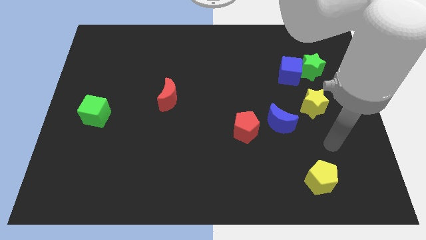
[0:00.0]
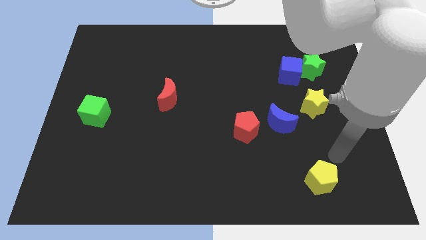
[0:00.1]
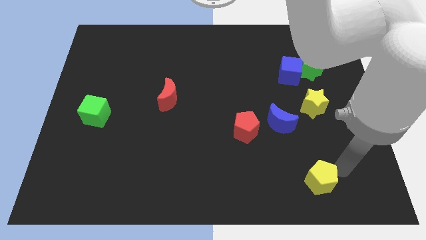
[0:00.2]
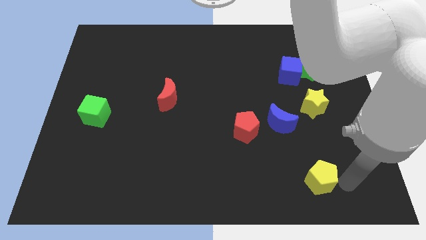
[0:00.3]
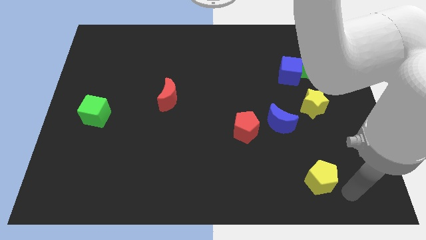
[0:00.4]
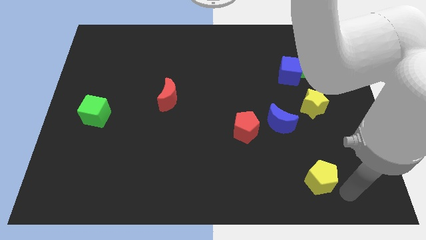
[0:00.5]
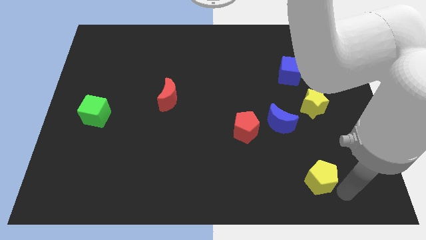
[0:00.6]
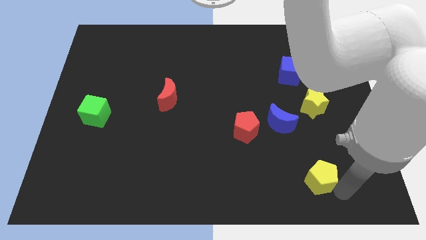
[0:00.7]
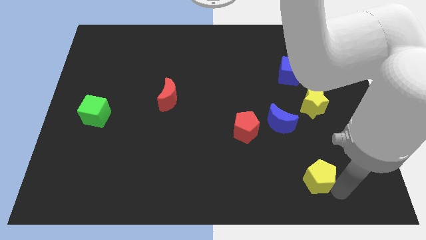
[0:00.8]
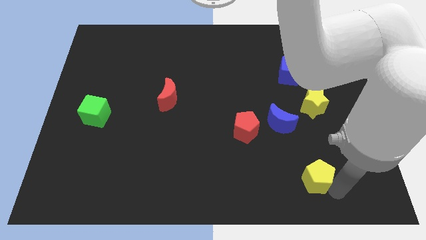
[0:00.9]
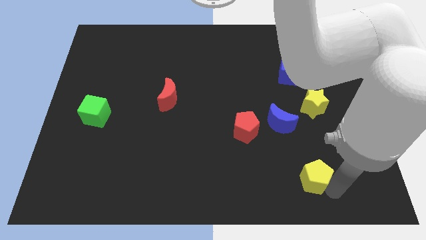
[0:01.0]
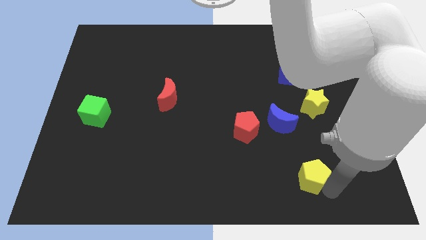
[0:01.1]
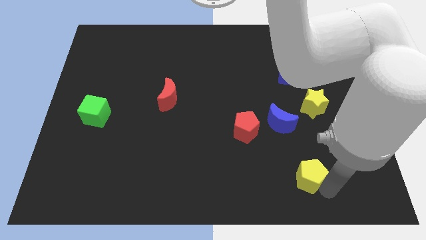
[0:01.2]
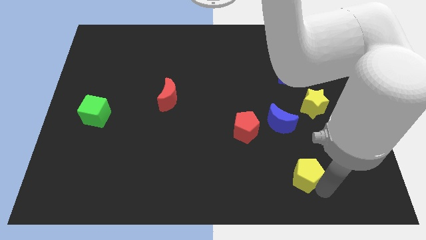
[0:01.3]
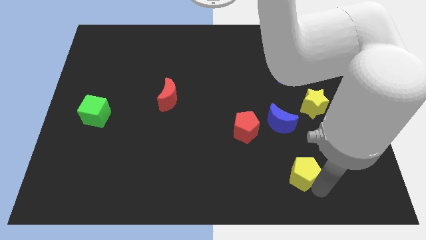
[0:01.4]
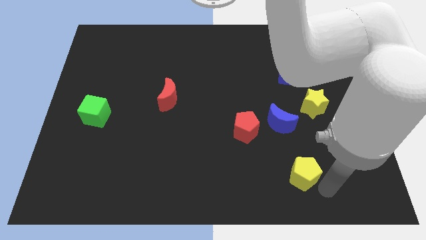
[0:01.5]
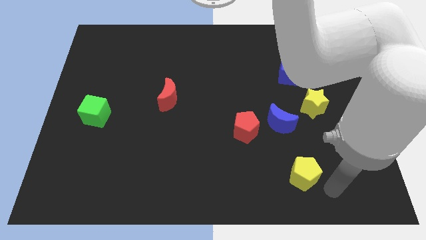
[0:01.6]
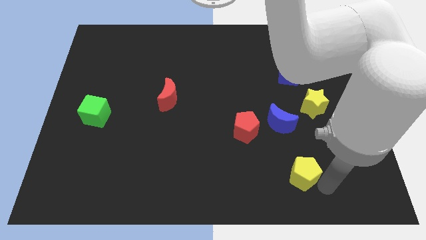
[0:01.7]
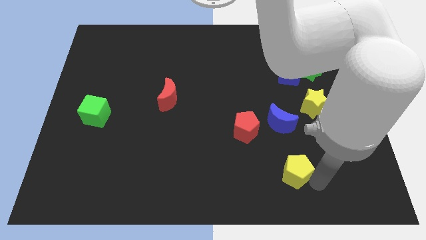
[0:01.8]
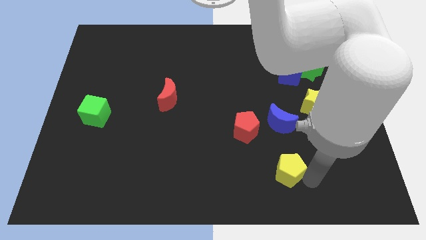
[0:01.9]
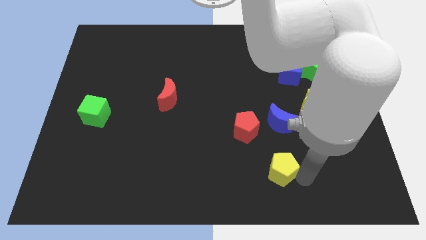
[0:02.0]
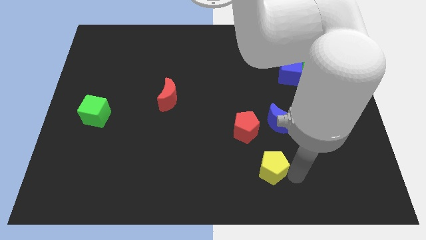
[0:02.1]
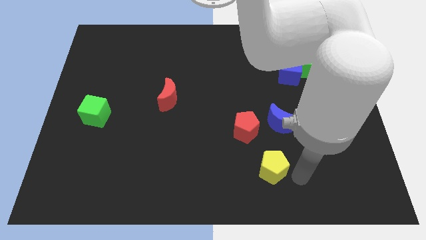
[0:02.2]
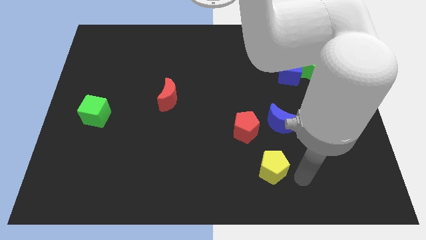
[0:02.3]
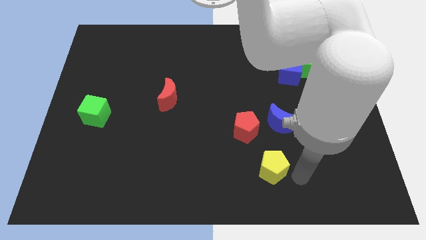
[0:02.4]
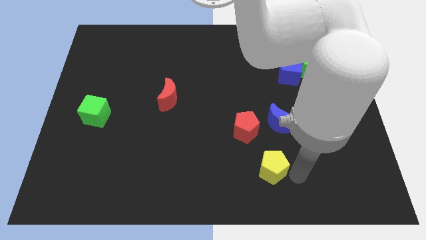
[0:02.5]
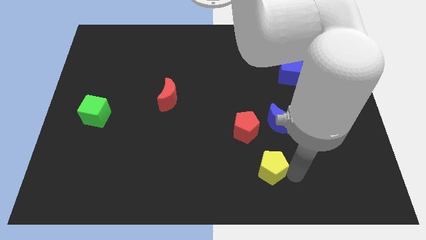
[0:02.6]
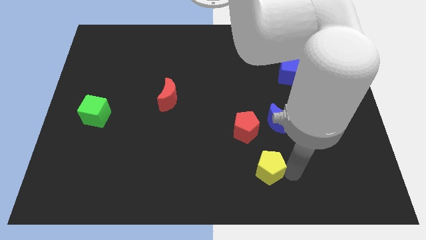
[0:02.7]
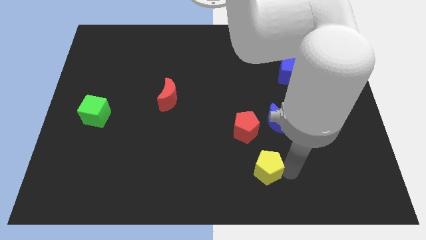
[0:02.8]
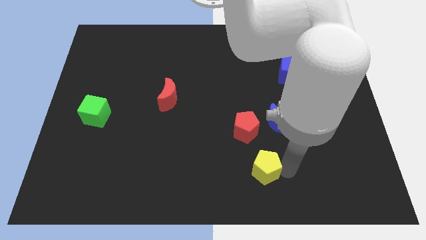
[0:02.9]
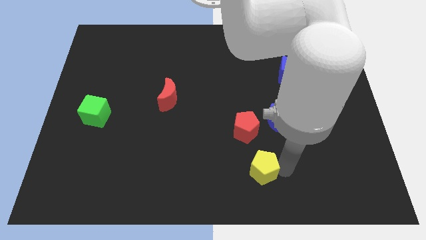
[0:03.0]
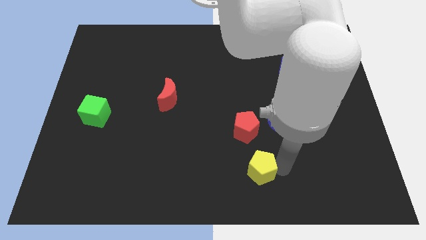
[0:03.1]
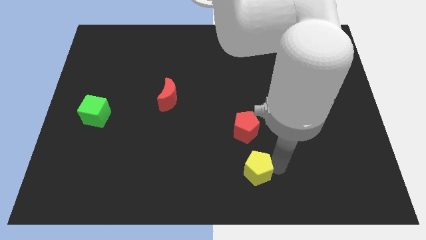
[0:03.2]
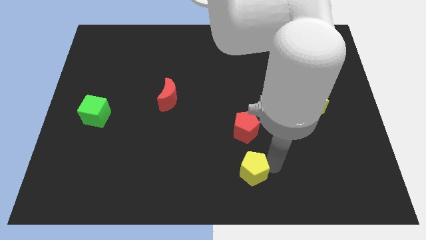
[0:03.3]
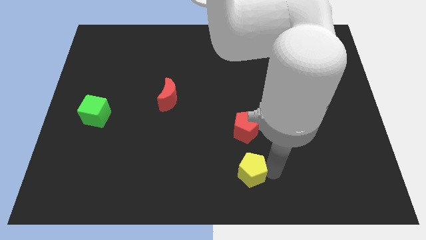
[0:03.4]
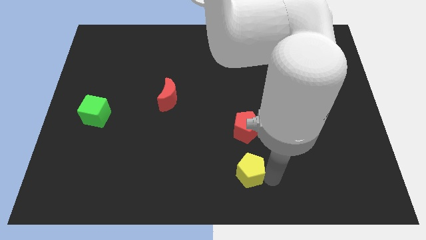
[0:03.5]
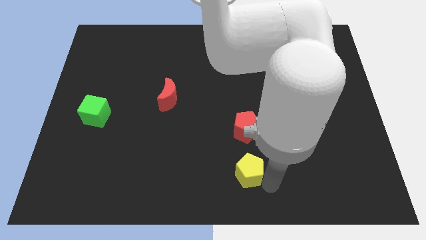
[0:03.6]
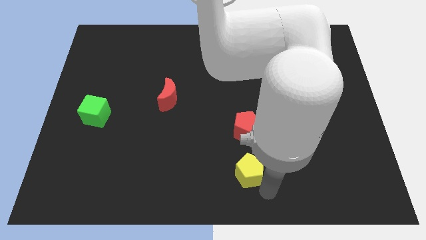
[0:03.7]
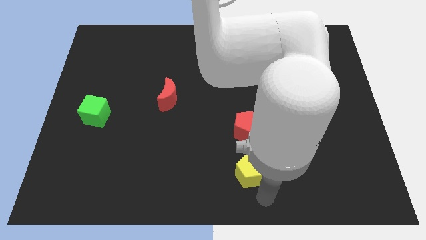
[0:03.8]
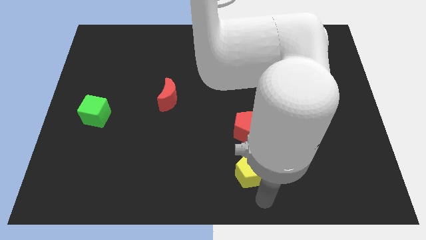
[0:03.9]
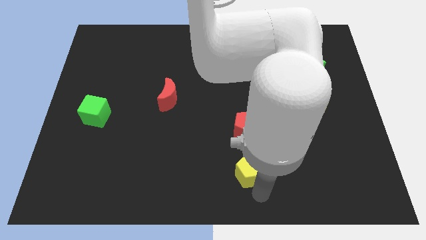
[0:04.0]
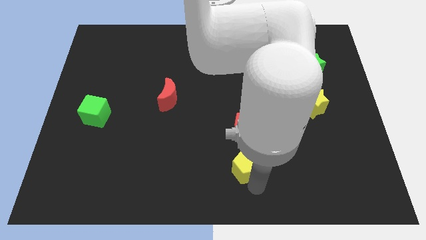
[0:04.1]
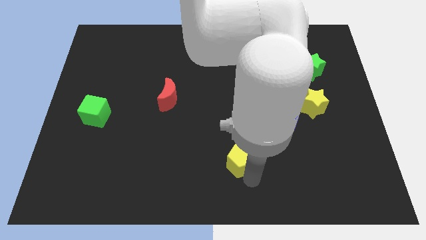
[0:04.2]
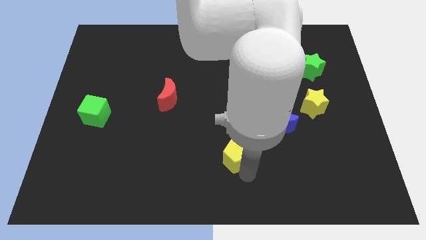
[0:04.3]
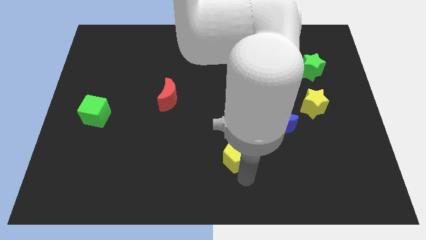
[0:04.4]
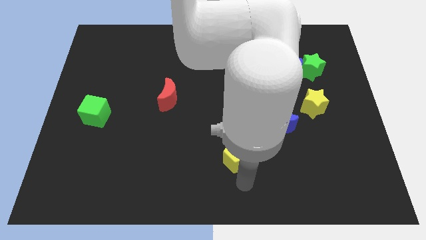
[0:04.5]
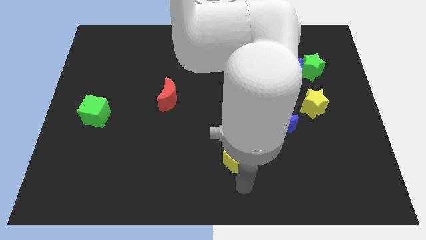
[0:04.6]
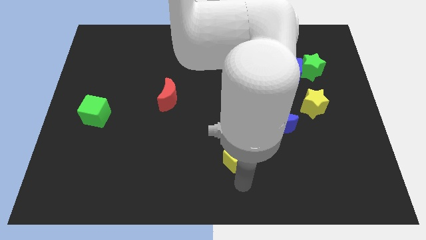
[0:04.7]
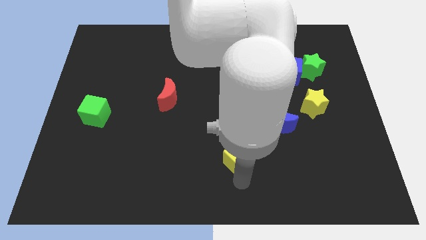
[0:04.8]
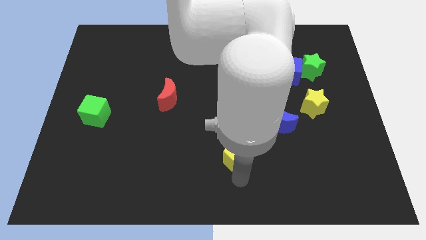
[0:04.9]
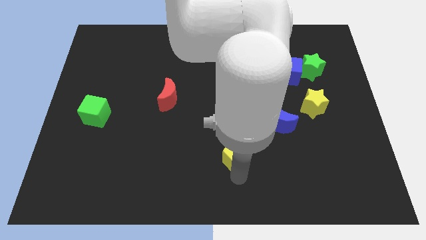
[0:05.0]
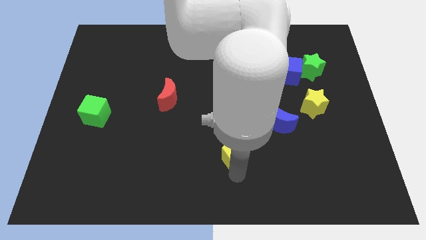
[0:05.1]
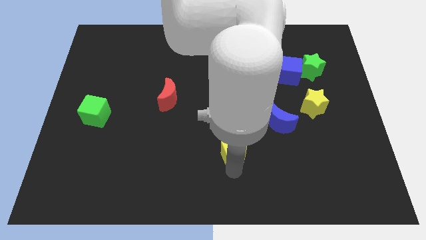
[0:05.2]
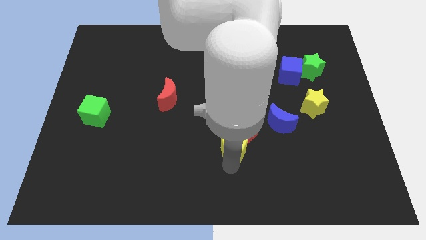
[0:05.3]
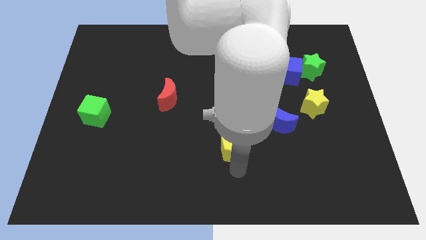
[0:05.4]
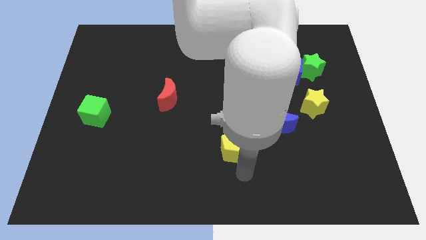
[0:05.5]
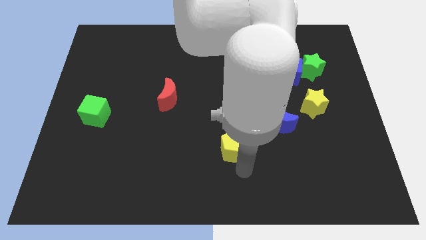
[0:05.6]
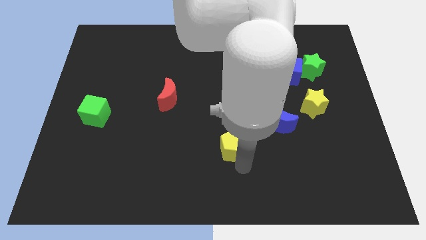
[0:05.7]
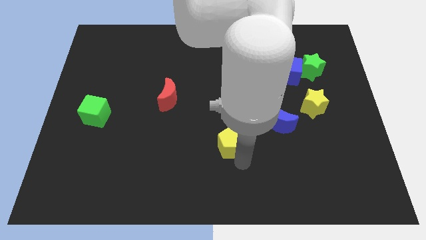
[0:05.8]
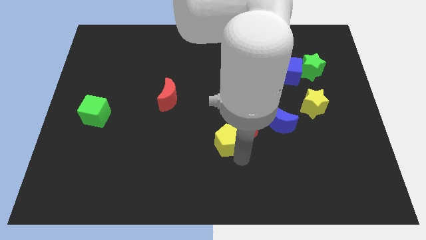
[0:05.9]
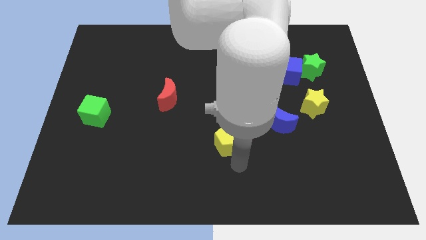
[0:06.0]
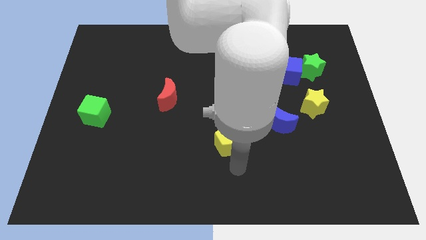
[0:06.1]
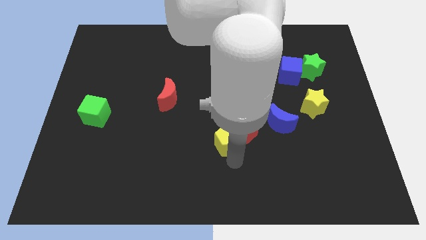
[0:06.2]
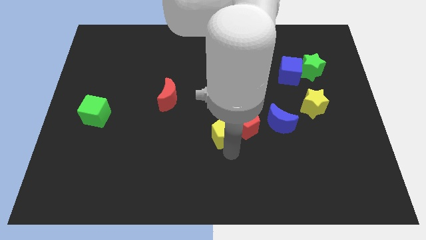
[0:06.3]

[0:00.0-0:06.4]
push the yellow pentagon upwards and then to the left

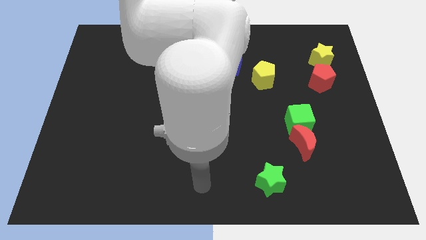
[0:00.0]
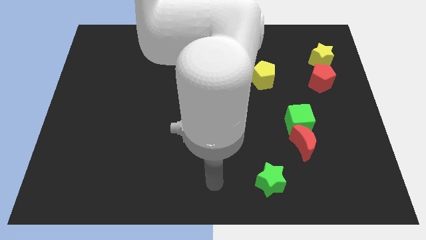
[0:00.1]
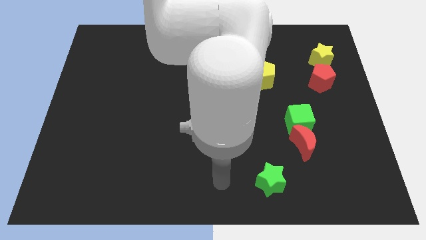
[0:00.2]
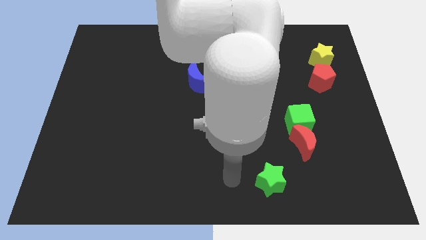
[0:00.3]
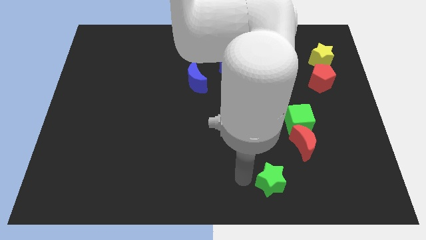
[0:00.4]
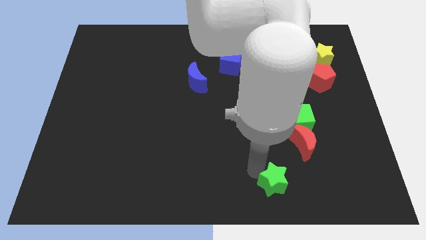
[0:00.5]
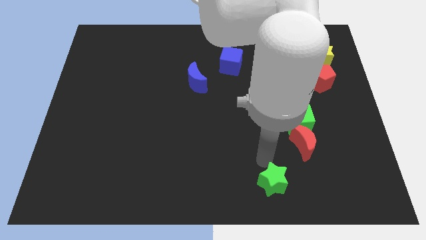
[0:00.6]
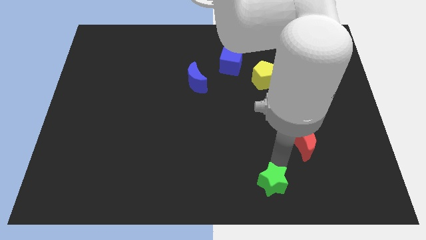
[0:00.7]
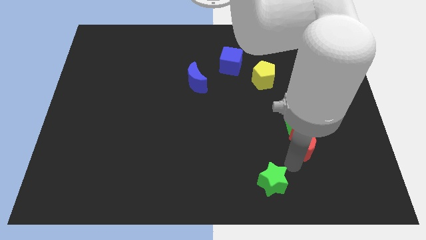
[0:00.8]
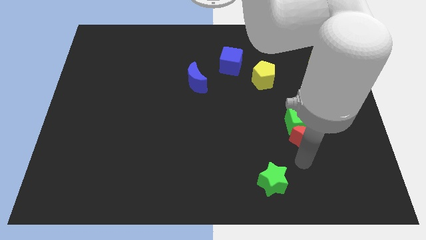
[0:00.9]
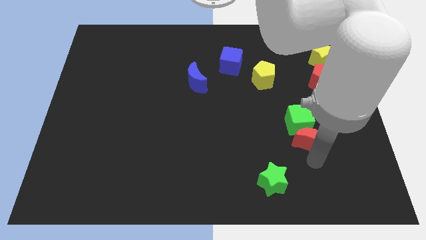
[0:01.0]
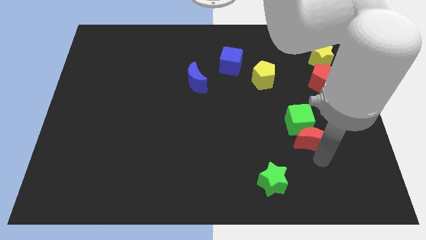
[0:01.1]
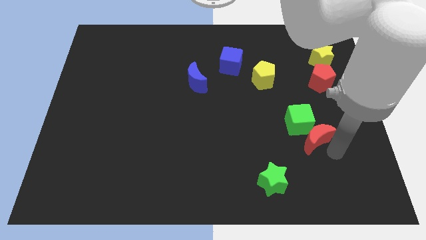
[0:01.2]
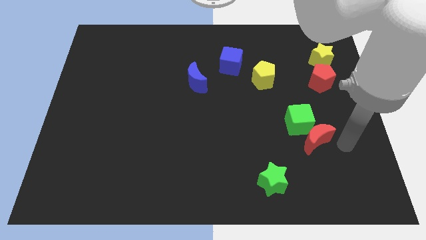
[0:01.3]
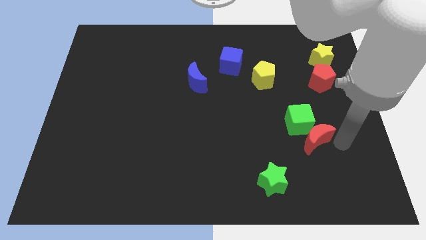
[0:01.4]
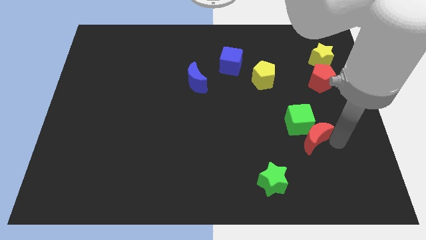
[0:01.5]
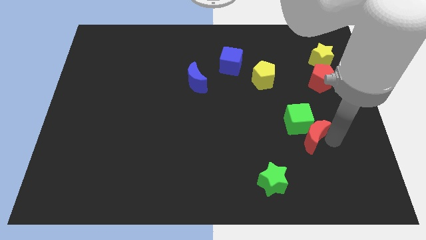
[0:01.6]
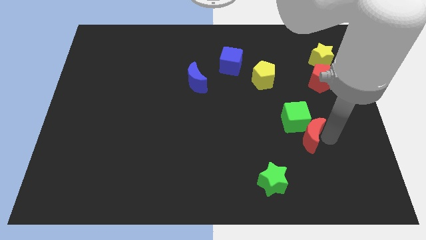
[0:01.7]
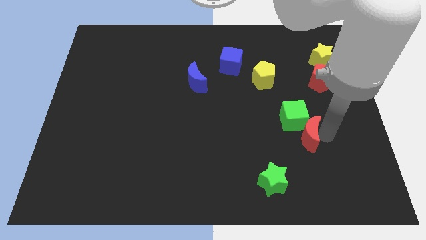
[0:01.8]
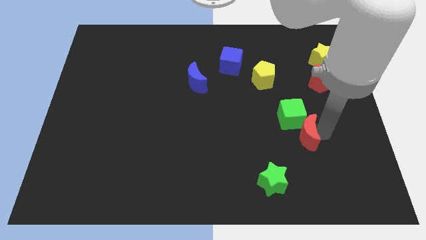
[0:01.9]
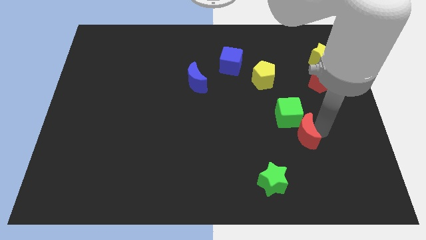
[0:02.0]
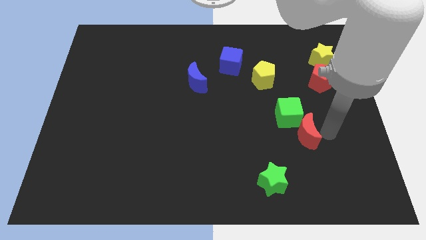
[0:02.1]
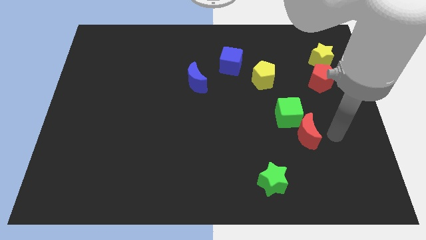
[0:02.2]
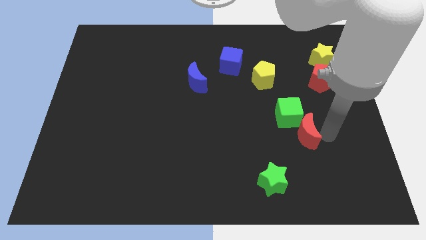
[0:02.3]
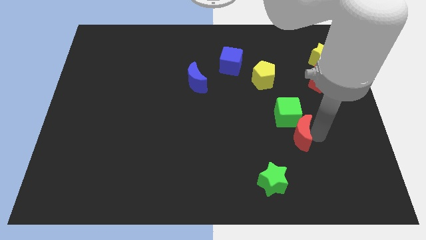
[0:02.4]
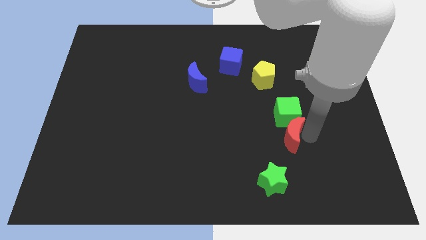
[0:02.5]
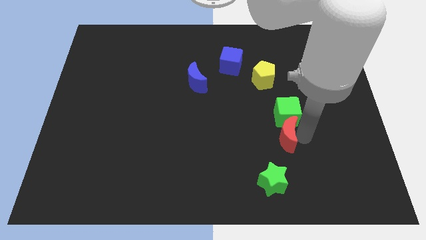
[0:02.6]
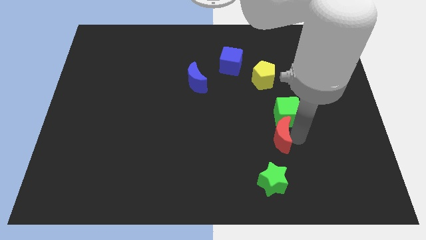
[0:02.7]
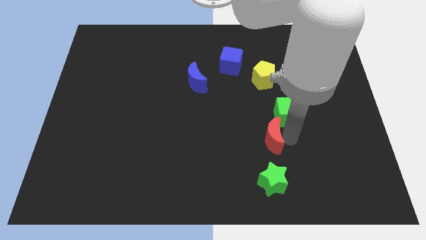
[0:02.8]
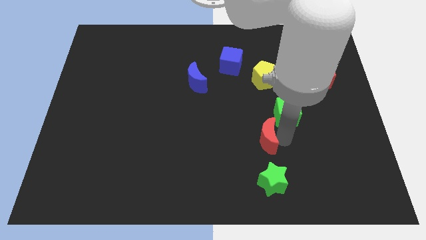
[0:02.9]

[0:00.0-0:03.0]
push the red moon left a little bit
